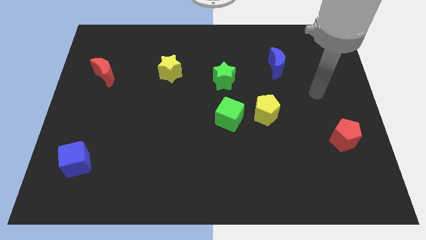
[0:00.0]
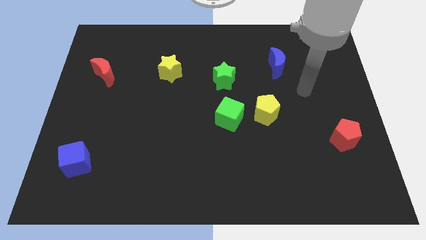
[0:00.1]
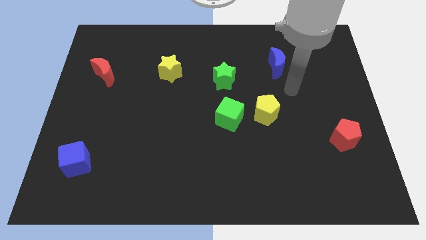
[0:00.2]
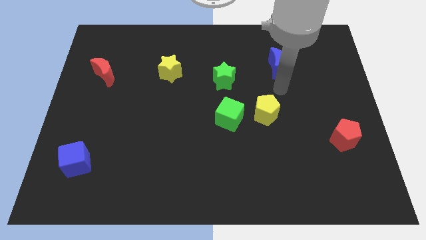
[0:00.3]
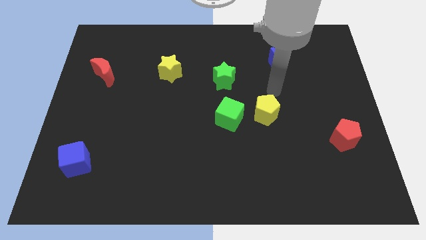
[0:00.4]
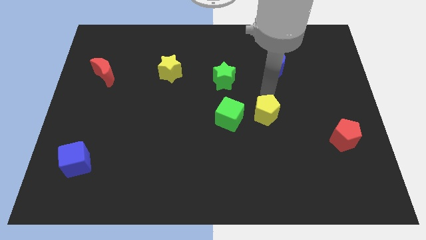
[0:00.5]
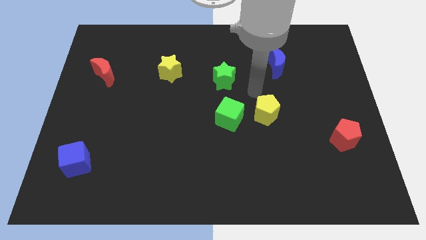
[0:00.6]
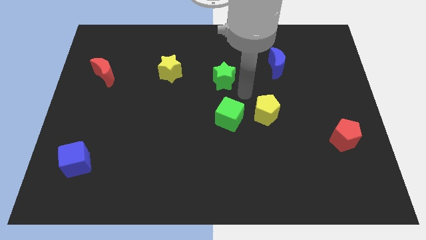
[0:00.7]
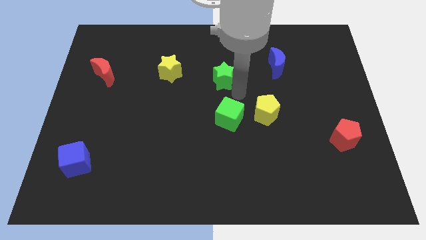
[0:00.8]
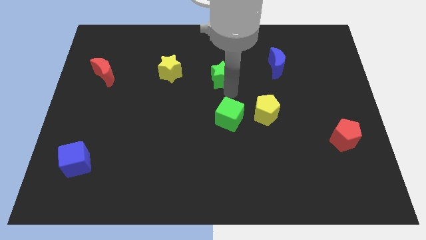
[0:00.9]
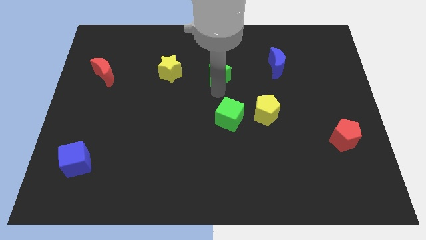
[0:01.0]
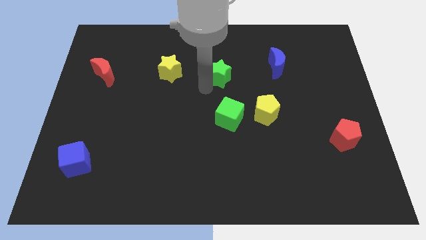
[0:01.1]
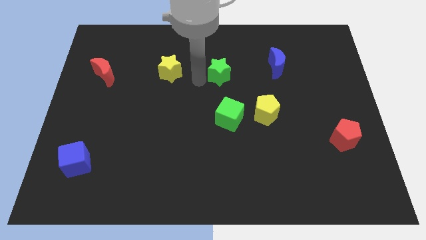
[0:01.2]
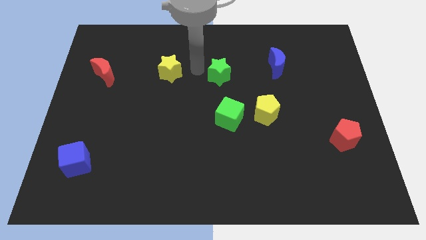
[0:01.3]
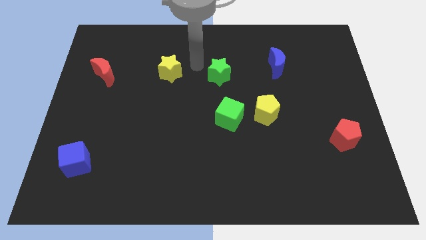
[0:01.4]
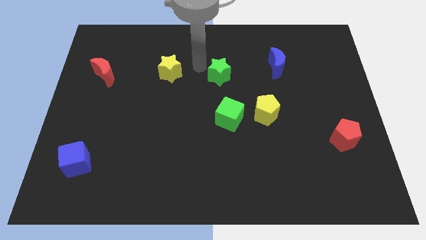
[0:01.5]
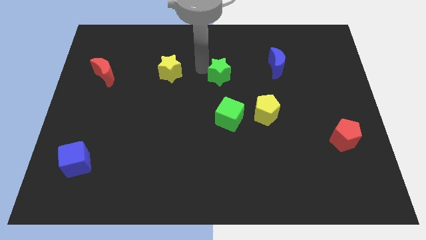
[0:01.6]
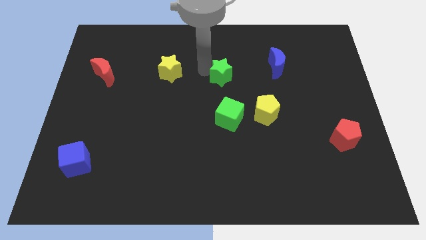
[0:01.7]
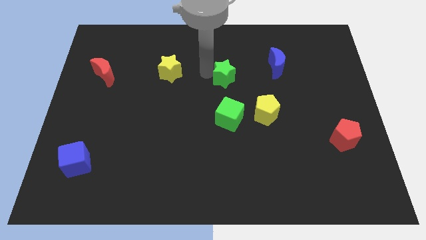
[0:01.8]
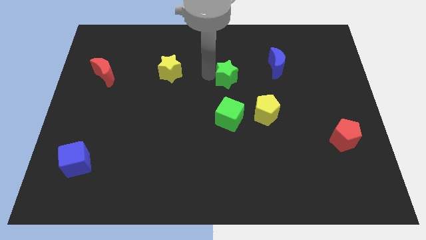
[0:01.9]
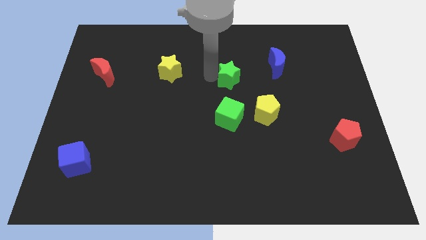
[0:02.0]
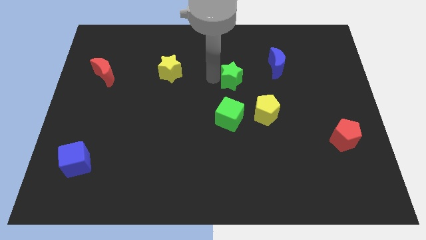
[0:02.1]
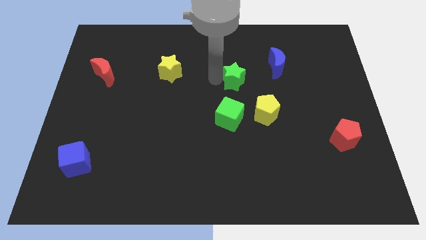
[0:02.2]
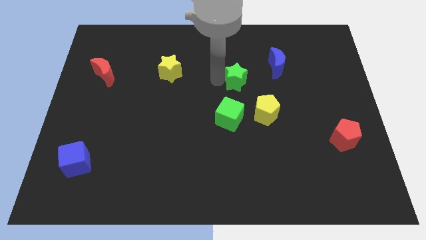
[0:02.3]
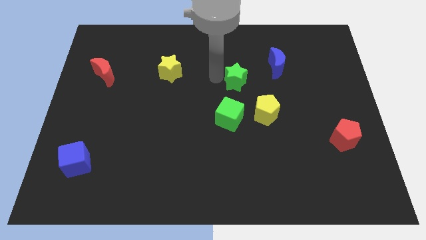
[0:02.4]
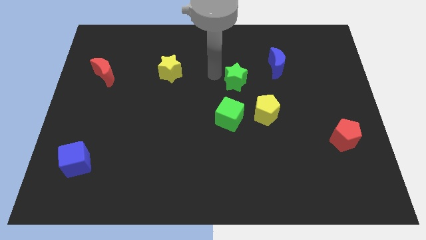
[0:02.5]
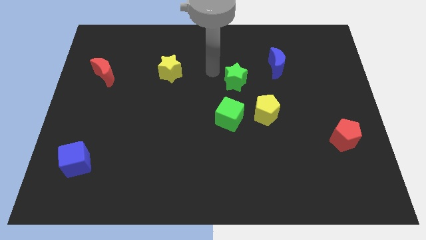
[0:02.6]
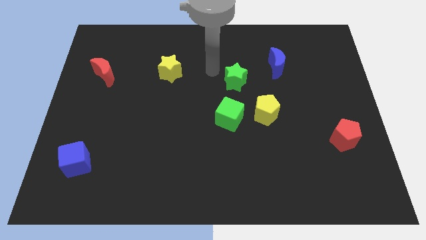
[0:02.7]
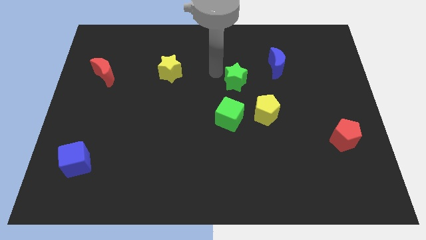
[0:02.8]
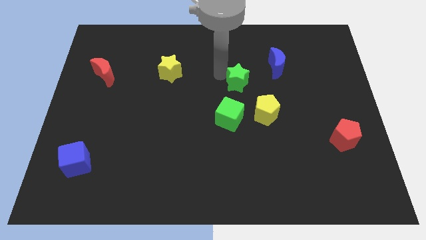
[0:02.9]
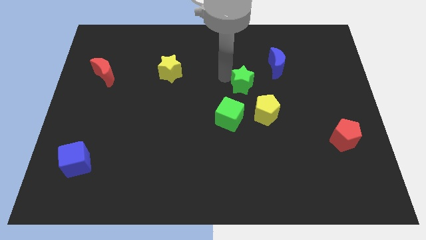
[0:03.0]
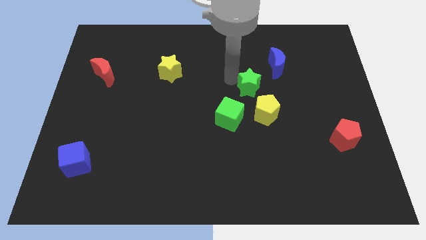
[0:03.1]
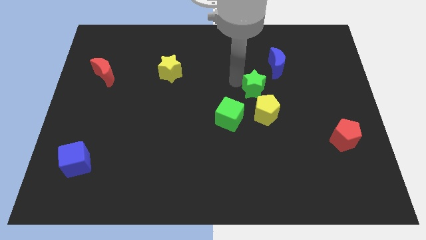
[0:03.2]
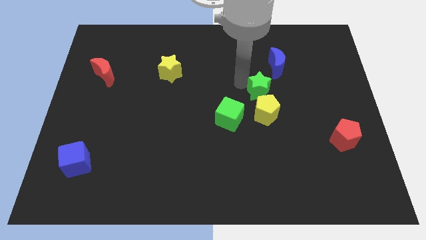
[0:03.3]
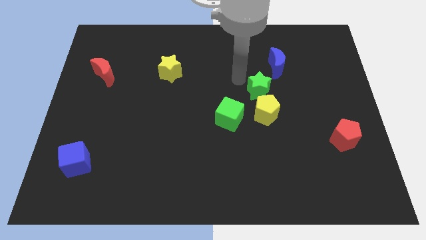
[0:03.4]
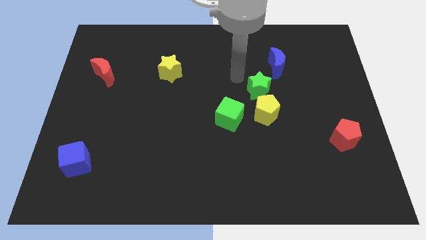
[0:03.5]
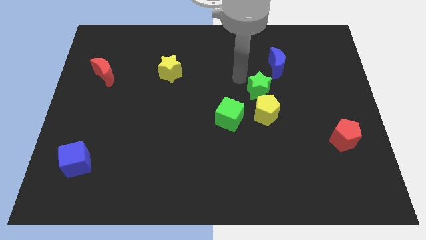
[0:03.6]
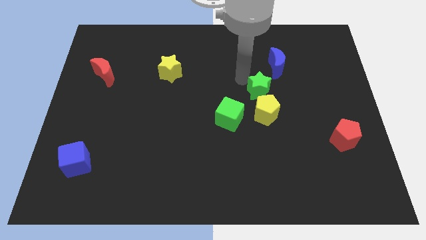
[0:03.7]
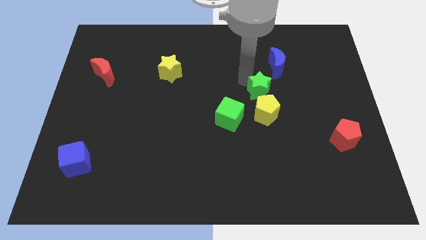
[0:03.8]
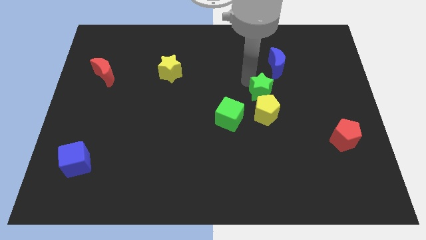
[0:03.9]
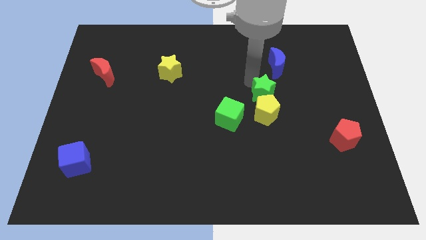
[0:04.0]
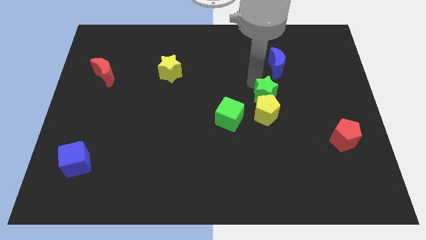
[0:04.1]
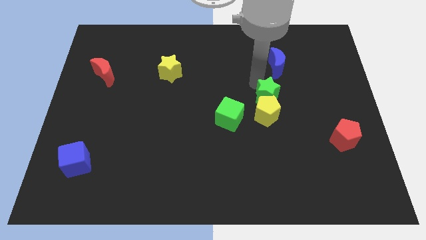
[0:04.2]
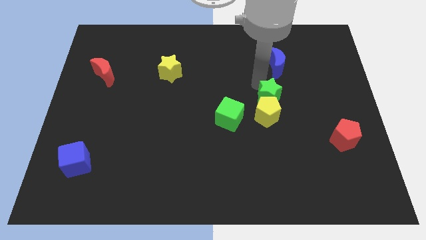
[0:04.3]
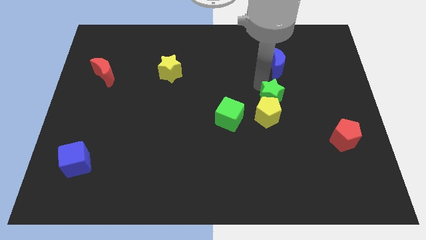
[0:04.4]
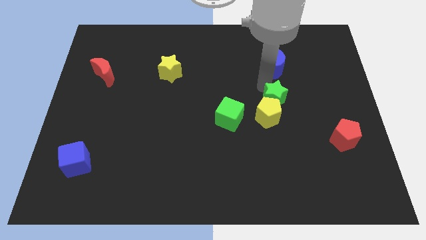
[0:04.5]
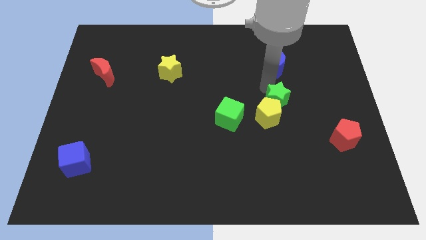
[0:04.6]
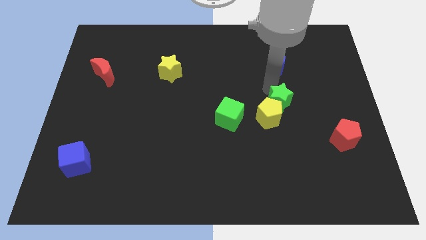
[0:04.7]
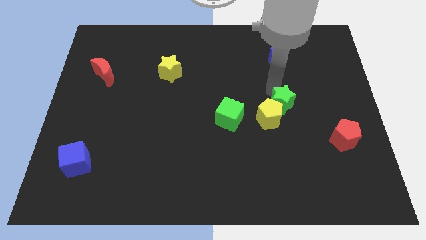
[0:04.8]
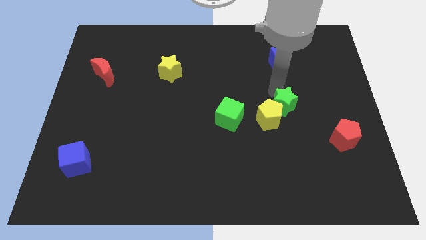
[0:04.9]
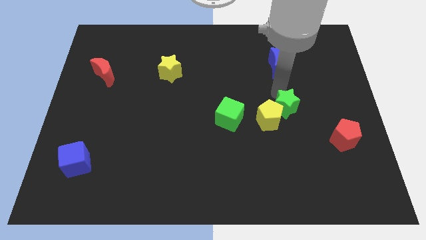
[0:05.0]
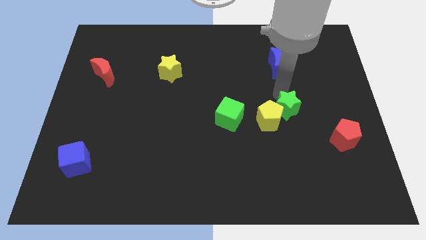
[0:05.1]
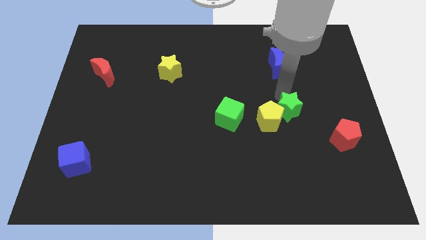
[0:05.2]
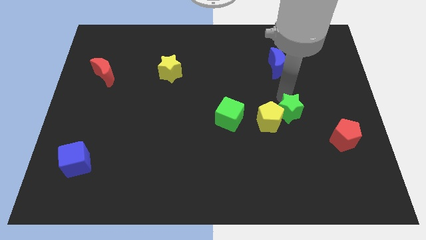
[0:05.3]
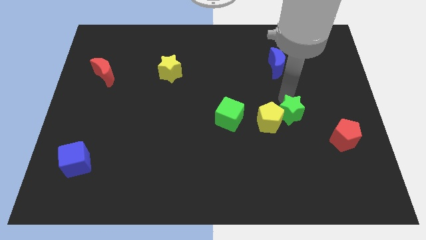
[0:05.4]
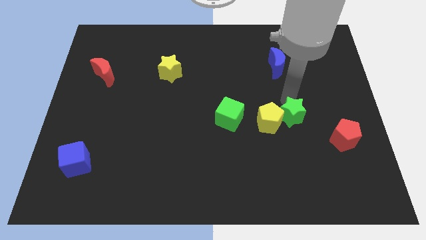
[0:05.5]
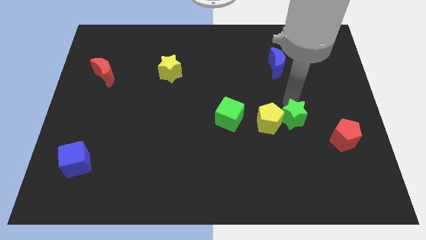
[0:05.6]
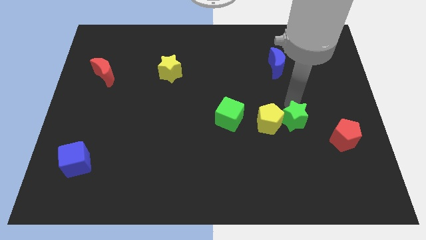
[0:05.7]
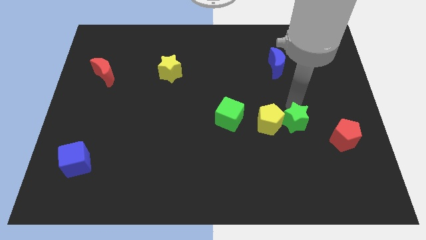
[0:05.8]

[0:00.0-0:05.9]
move the green star down and then right

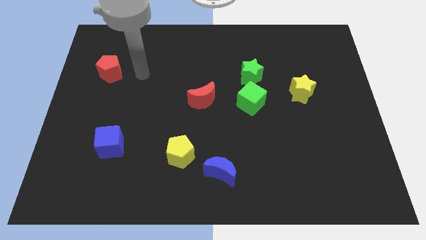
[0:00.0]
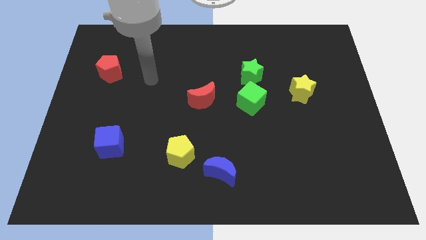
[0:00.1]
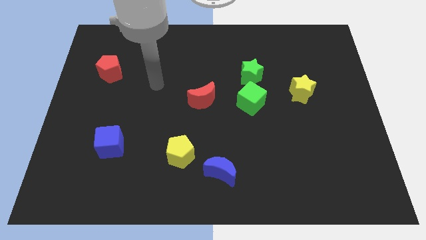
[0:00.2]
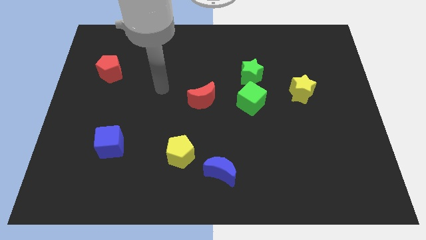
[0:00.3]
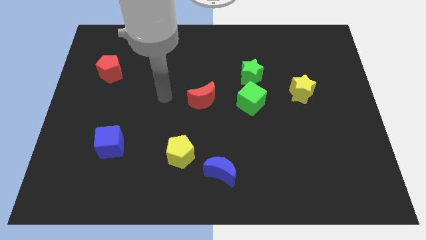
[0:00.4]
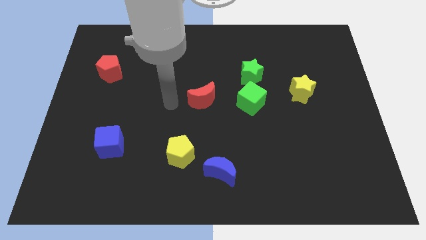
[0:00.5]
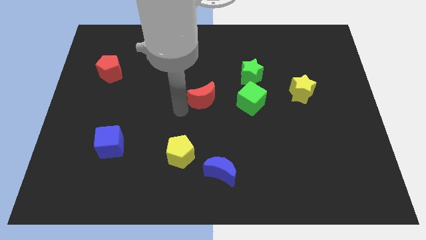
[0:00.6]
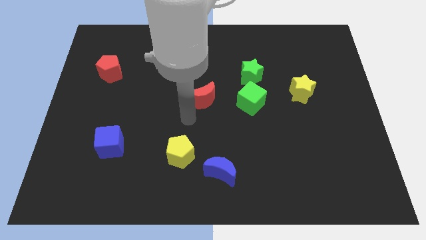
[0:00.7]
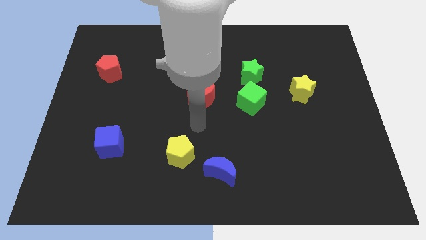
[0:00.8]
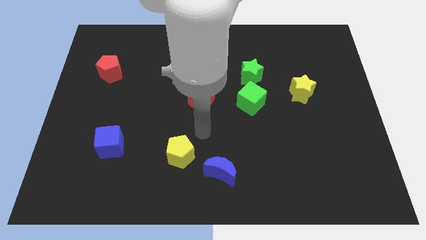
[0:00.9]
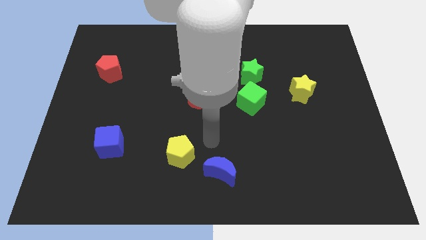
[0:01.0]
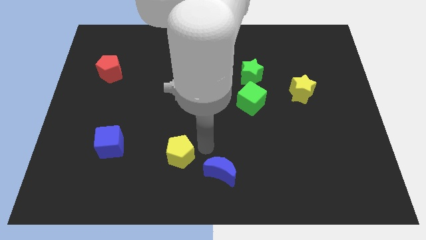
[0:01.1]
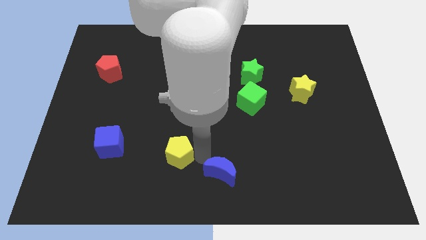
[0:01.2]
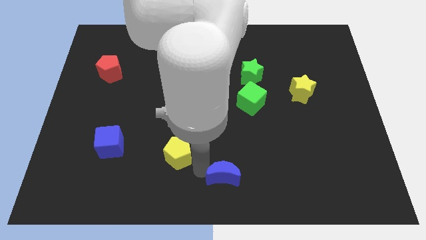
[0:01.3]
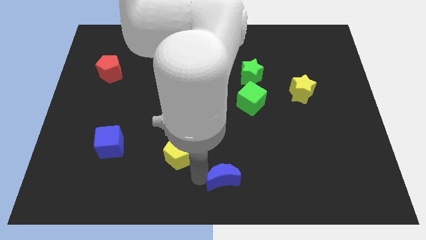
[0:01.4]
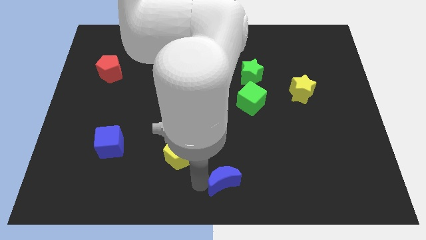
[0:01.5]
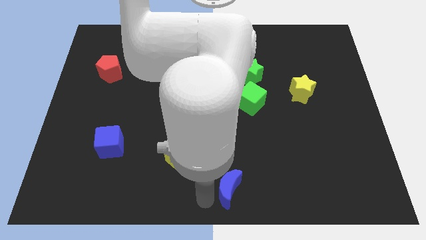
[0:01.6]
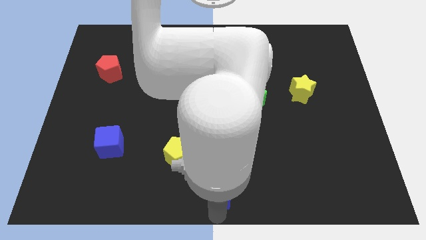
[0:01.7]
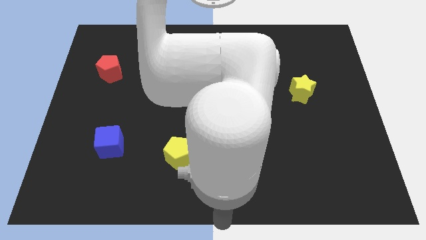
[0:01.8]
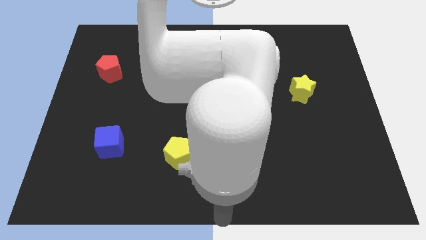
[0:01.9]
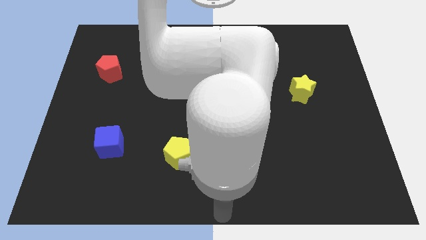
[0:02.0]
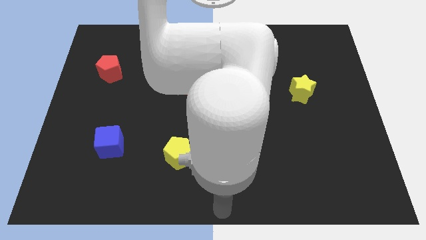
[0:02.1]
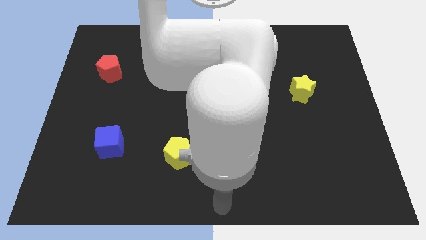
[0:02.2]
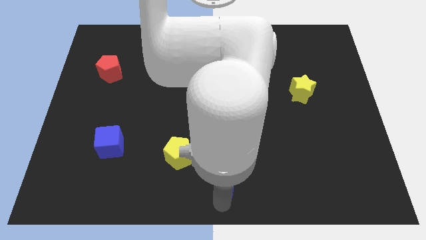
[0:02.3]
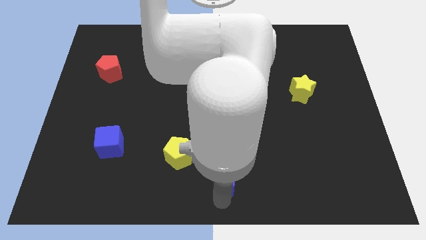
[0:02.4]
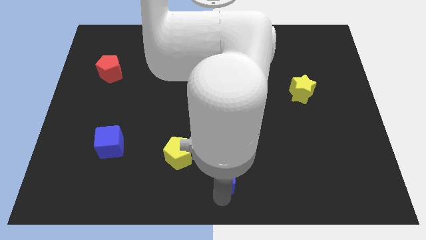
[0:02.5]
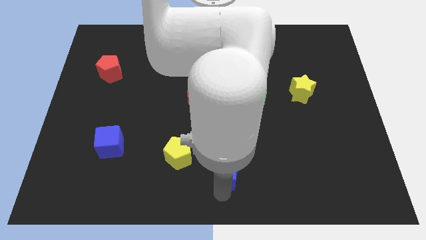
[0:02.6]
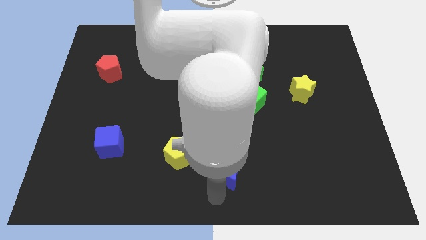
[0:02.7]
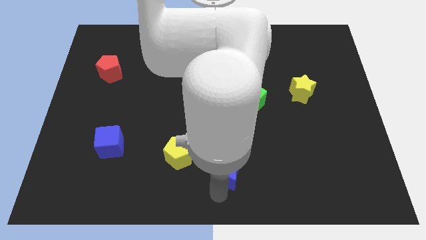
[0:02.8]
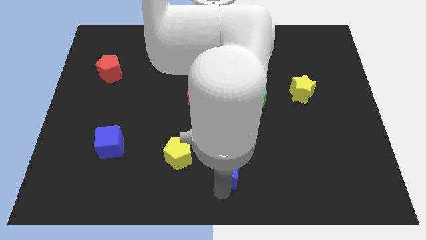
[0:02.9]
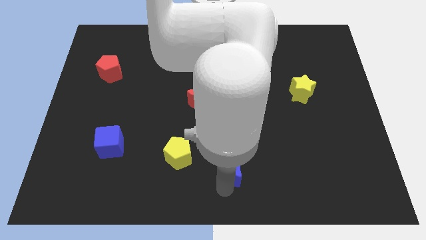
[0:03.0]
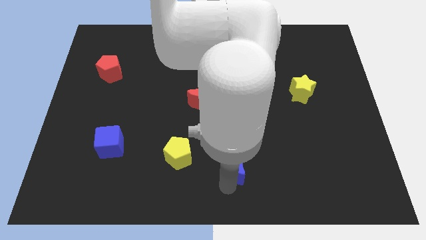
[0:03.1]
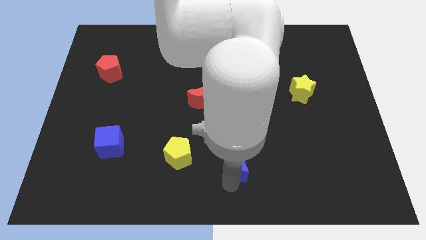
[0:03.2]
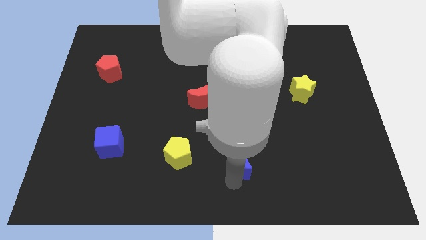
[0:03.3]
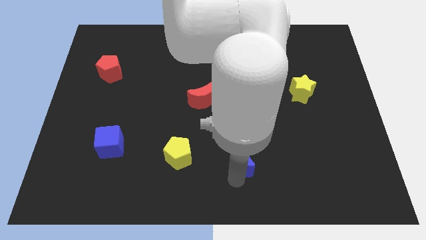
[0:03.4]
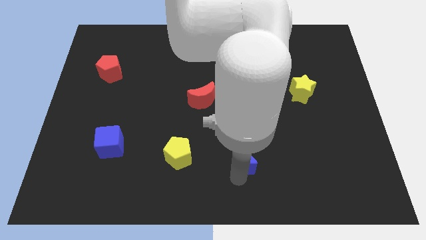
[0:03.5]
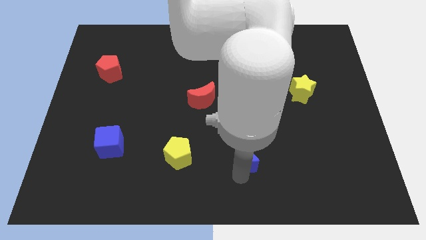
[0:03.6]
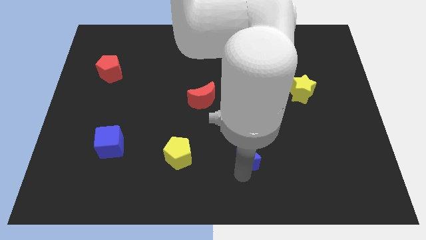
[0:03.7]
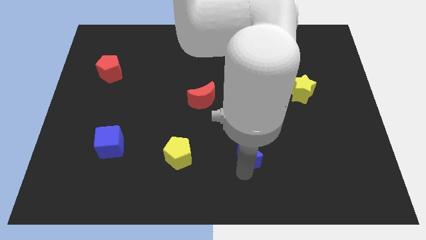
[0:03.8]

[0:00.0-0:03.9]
move the blue moon slightly up and right
